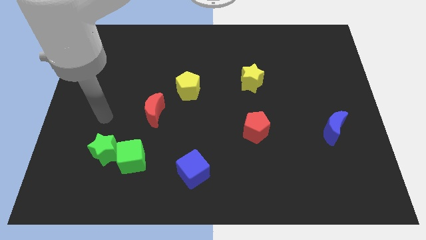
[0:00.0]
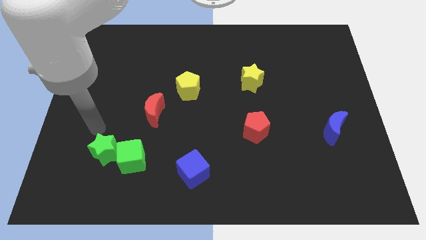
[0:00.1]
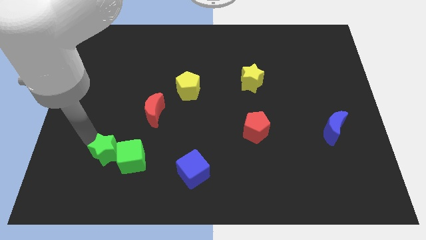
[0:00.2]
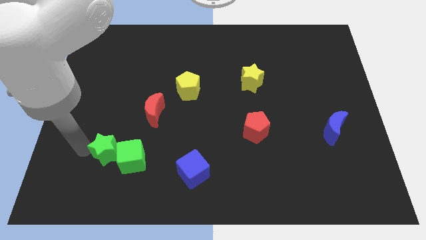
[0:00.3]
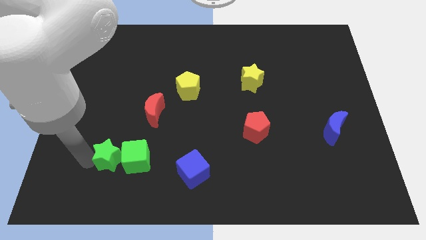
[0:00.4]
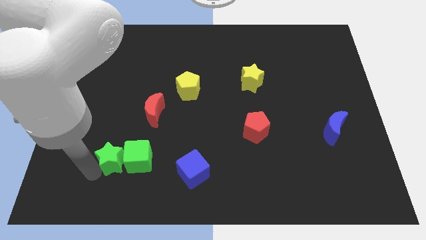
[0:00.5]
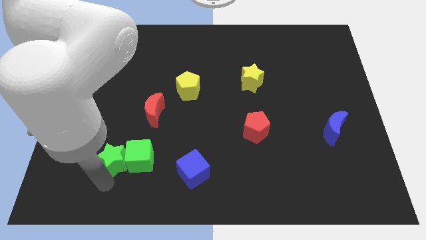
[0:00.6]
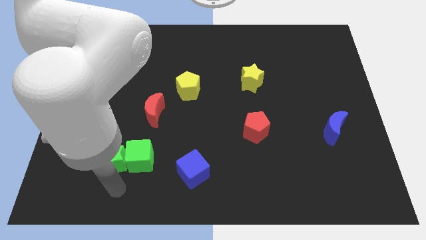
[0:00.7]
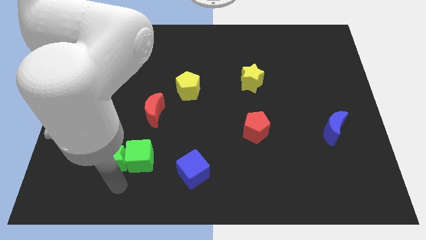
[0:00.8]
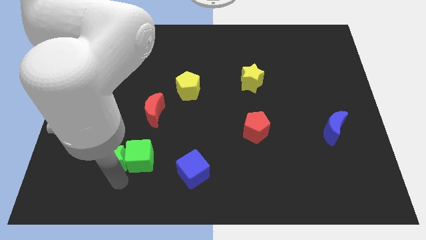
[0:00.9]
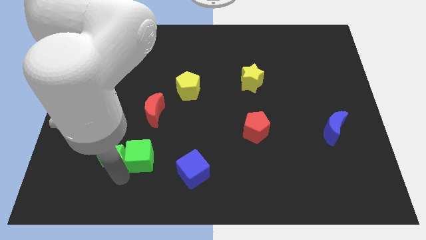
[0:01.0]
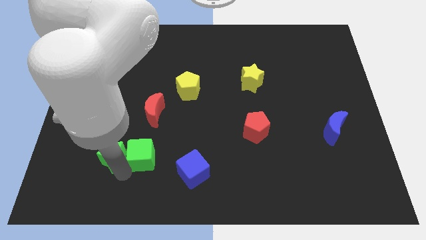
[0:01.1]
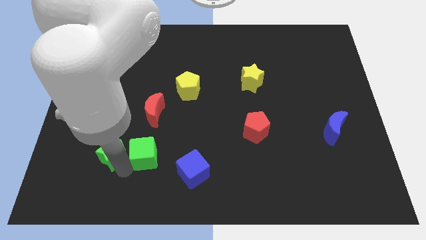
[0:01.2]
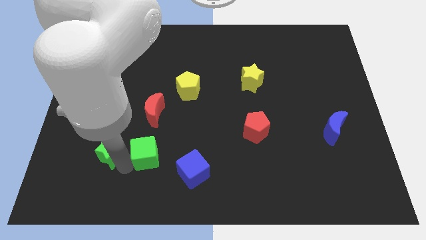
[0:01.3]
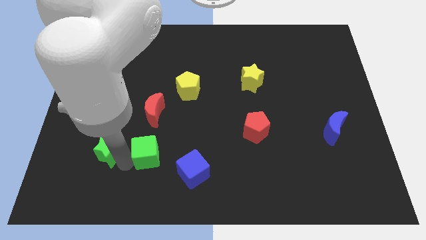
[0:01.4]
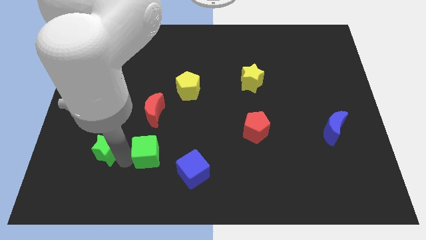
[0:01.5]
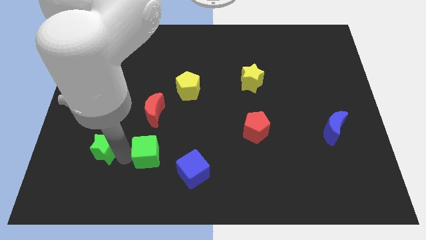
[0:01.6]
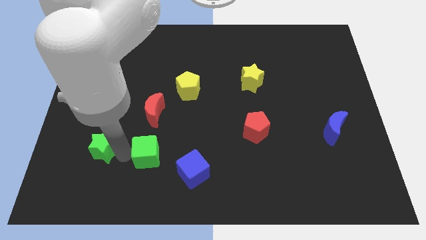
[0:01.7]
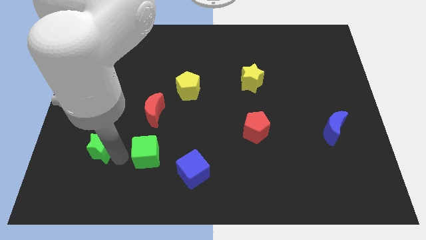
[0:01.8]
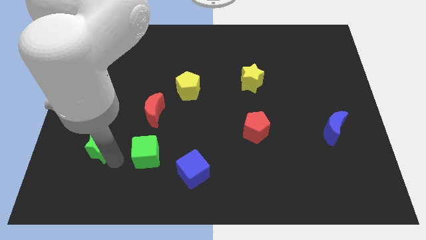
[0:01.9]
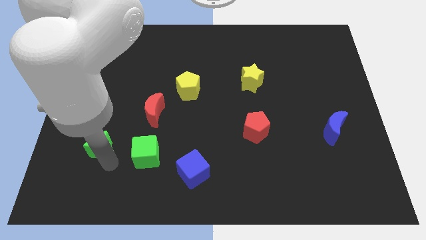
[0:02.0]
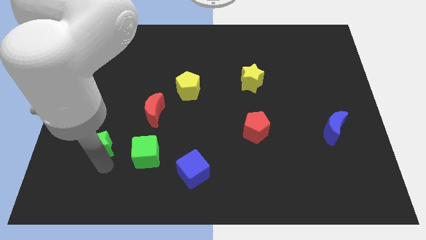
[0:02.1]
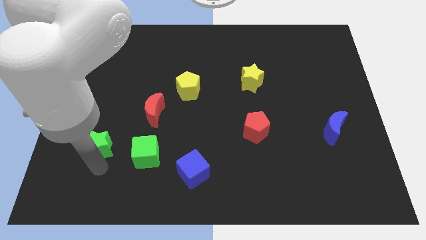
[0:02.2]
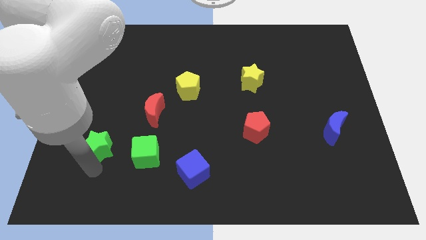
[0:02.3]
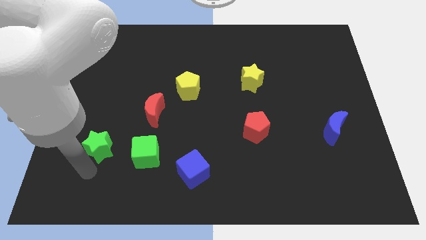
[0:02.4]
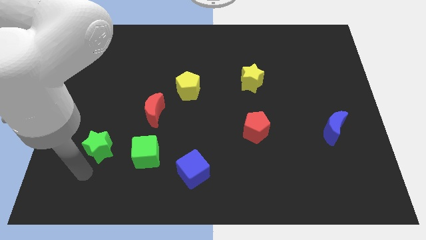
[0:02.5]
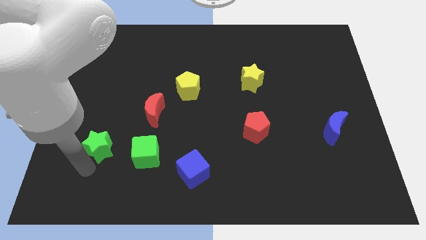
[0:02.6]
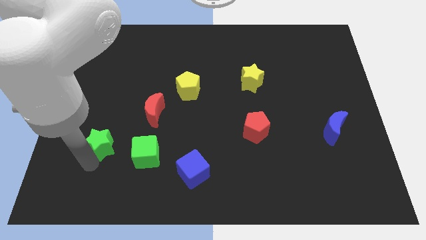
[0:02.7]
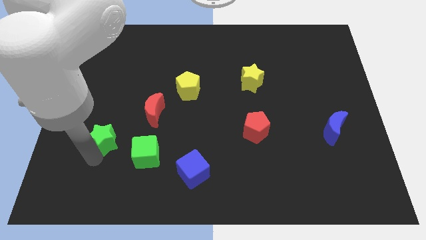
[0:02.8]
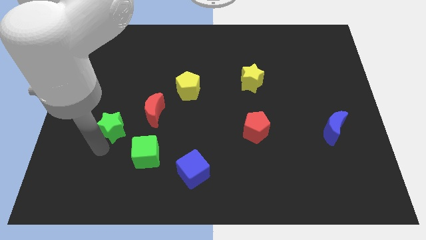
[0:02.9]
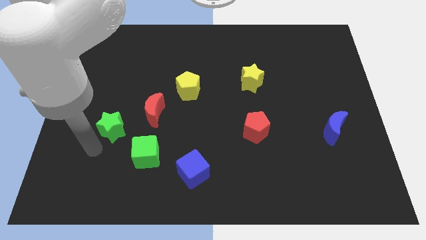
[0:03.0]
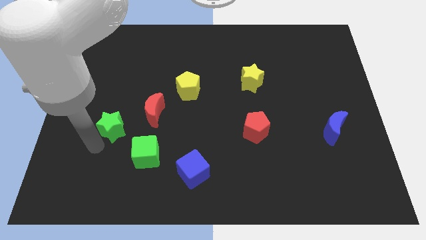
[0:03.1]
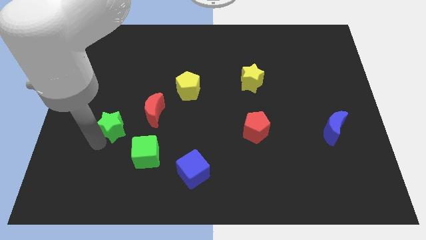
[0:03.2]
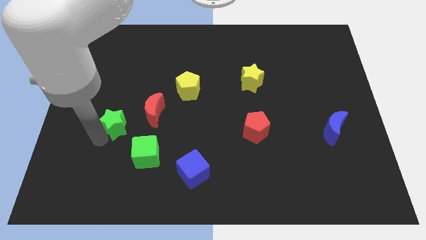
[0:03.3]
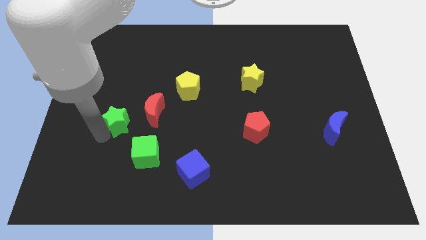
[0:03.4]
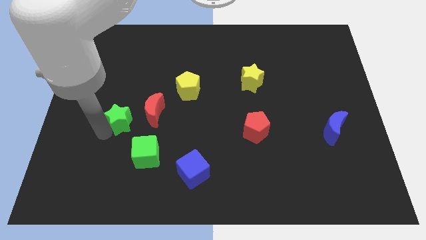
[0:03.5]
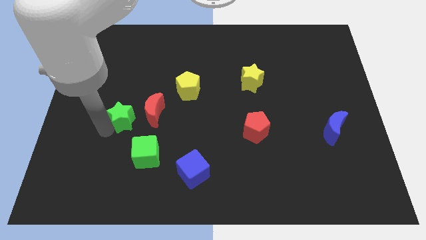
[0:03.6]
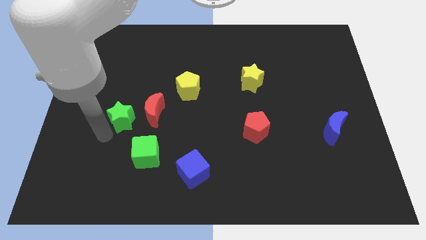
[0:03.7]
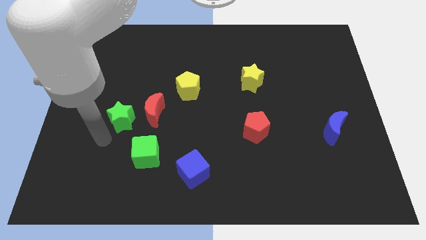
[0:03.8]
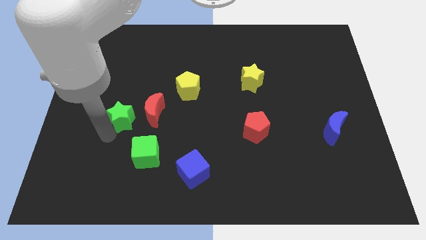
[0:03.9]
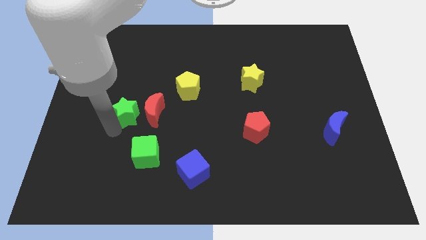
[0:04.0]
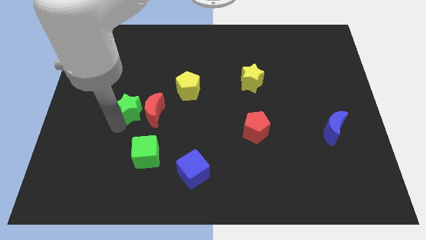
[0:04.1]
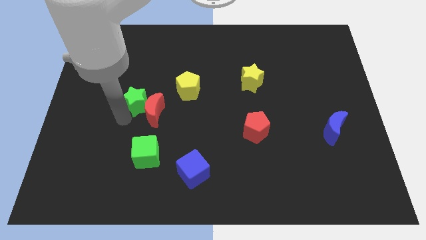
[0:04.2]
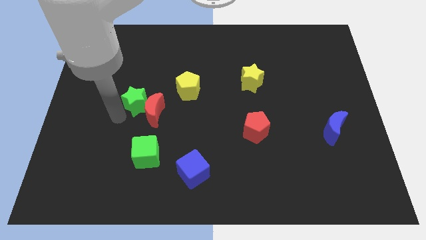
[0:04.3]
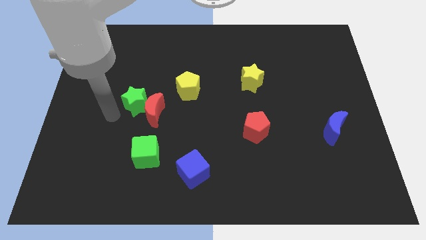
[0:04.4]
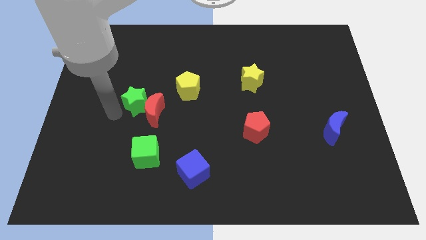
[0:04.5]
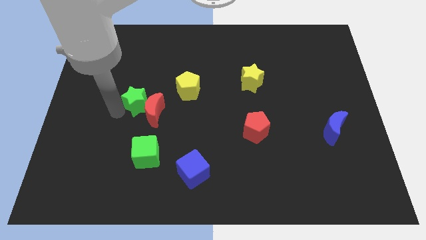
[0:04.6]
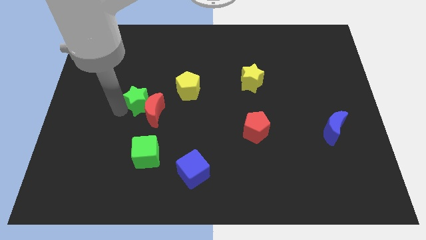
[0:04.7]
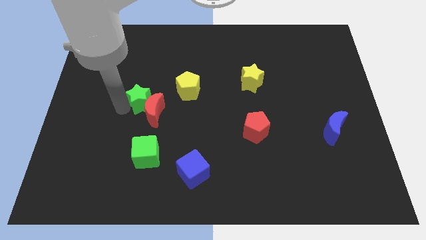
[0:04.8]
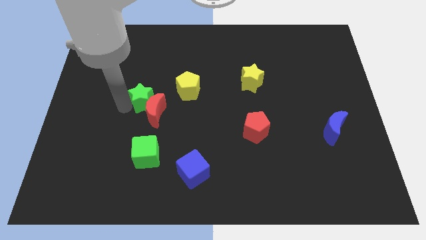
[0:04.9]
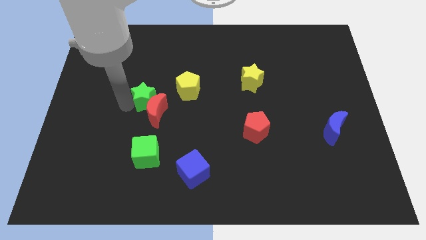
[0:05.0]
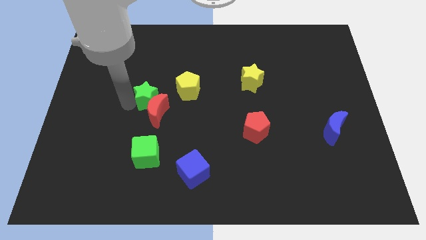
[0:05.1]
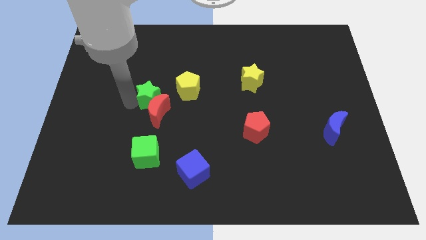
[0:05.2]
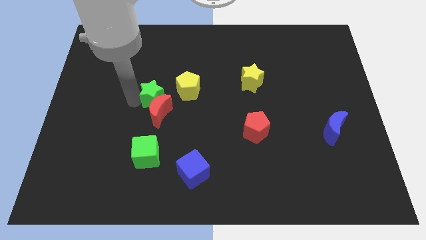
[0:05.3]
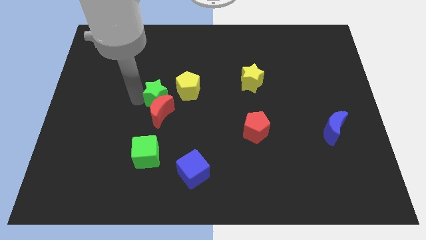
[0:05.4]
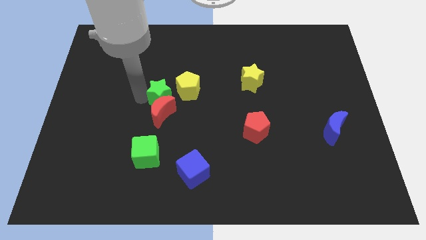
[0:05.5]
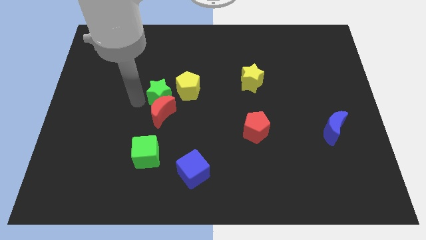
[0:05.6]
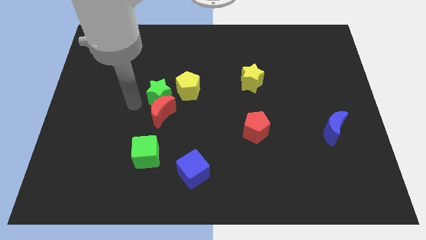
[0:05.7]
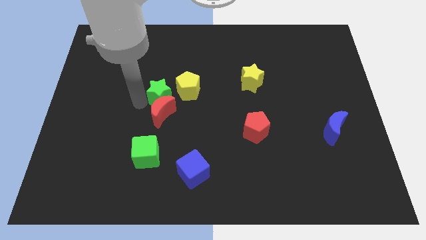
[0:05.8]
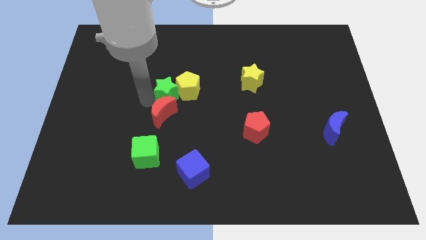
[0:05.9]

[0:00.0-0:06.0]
put the green star to the yellow pentagon
